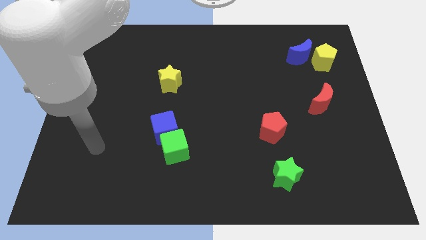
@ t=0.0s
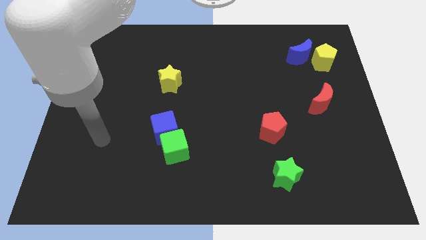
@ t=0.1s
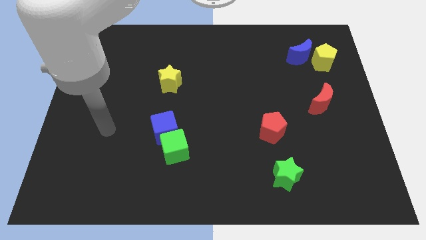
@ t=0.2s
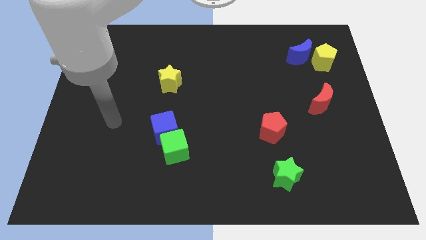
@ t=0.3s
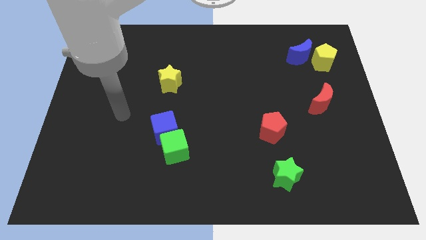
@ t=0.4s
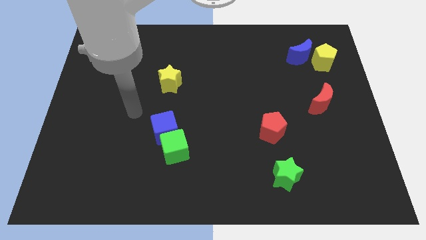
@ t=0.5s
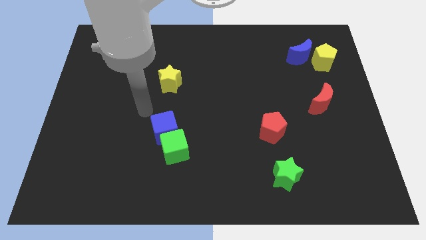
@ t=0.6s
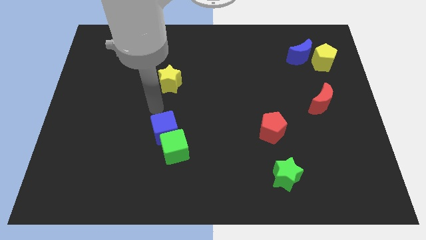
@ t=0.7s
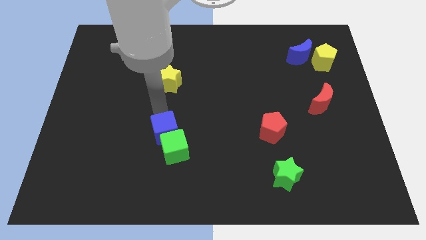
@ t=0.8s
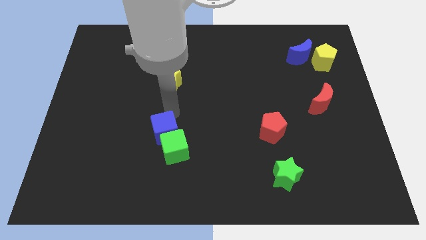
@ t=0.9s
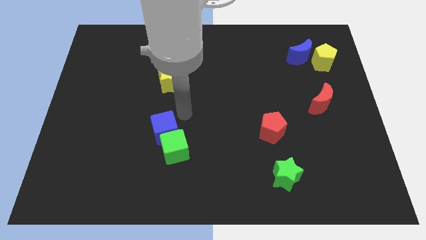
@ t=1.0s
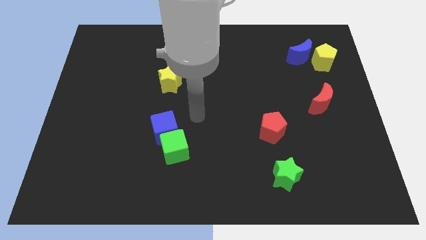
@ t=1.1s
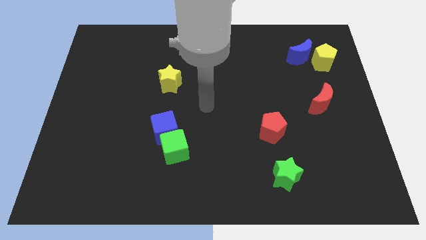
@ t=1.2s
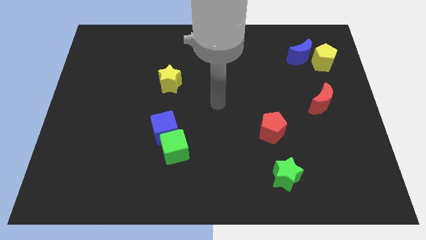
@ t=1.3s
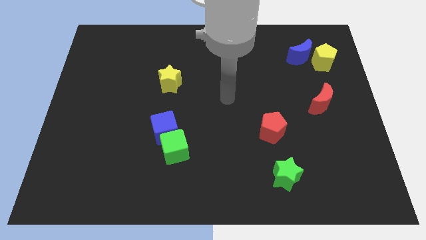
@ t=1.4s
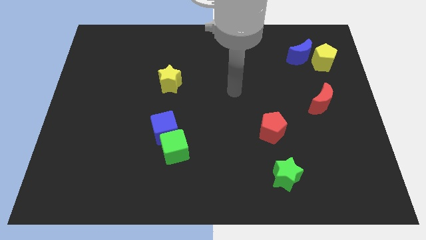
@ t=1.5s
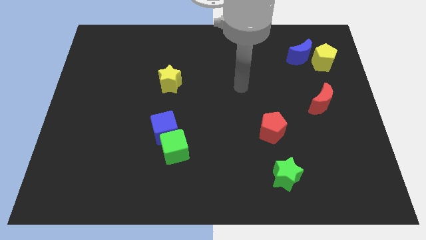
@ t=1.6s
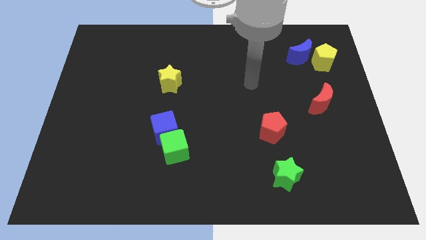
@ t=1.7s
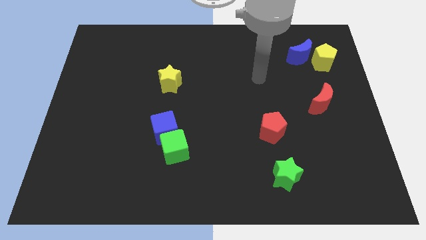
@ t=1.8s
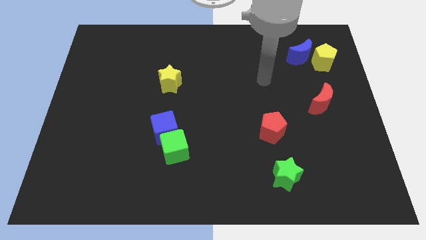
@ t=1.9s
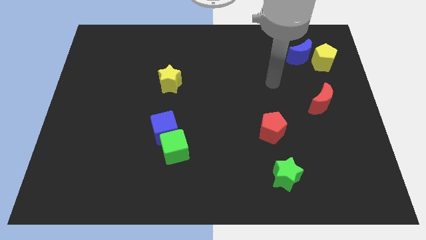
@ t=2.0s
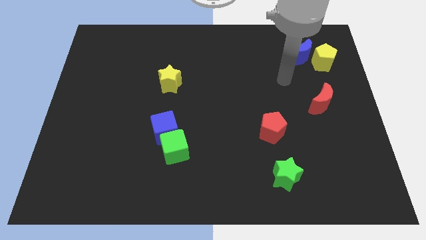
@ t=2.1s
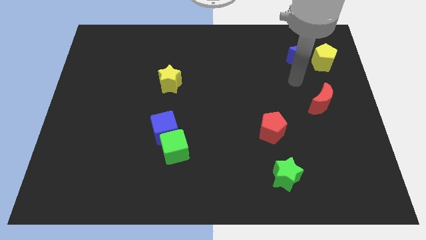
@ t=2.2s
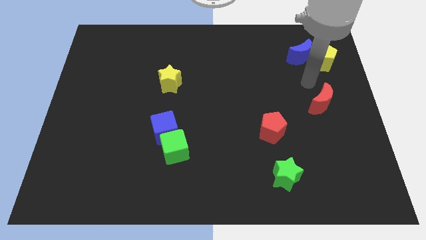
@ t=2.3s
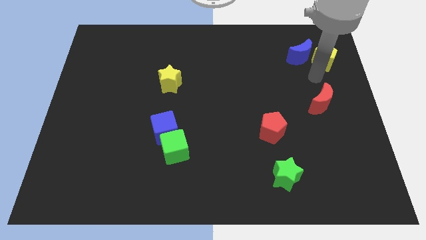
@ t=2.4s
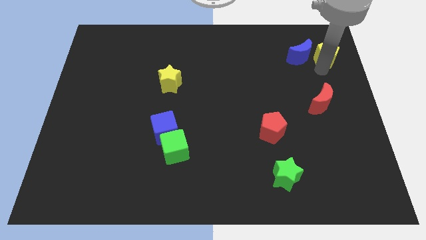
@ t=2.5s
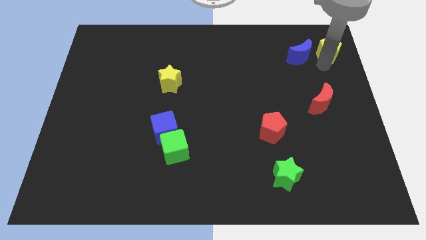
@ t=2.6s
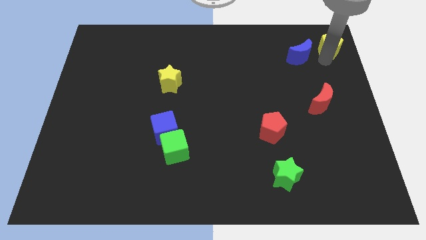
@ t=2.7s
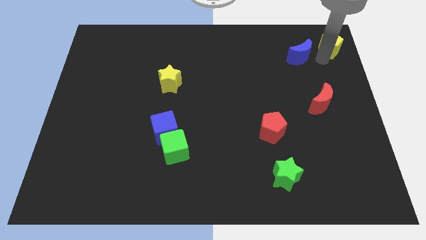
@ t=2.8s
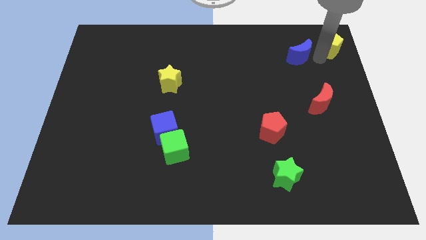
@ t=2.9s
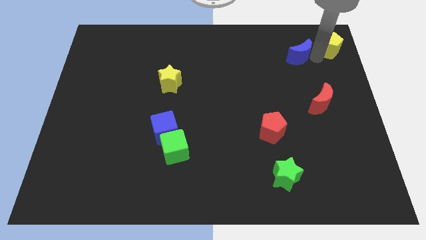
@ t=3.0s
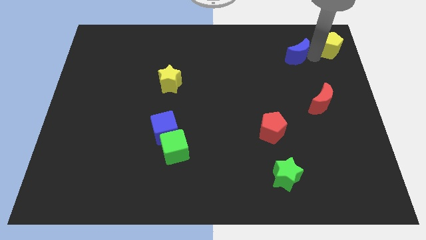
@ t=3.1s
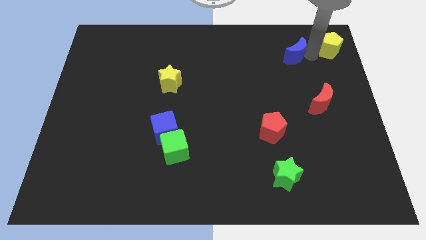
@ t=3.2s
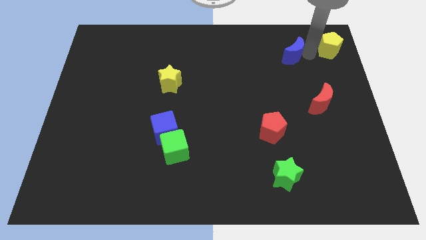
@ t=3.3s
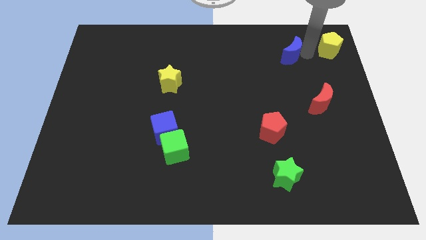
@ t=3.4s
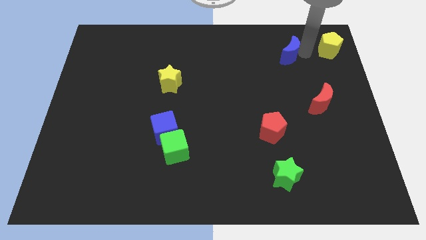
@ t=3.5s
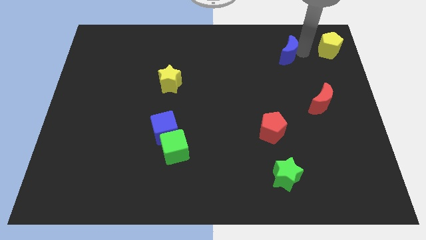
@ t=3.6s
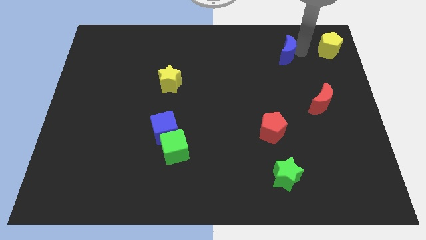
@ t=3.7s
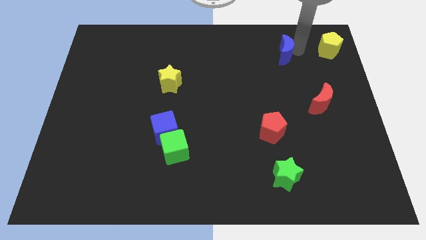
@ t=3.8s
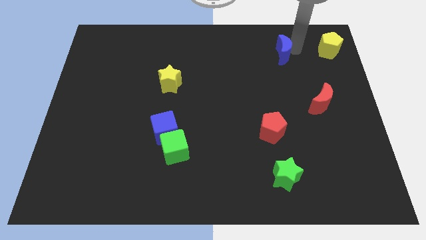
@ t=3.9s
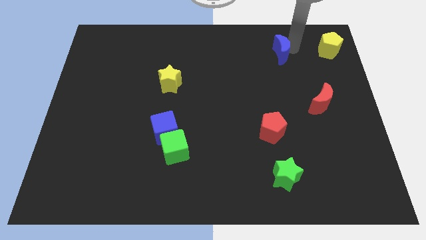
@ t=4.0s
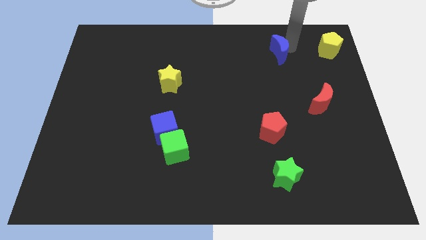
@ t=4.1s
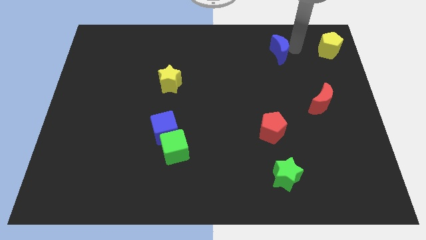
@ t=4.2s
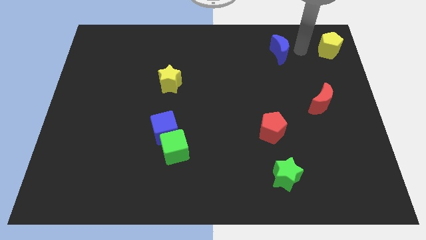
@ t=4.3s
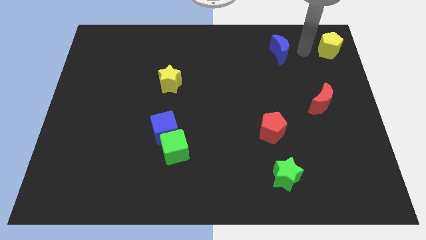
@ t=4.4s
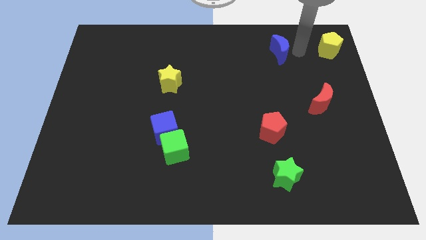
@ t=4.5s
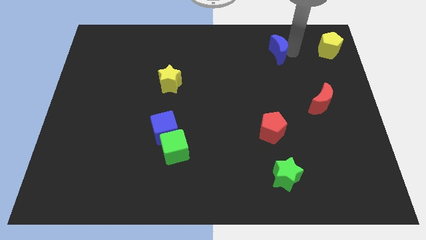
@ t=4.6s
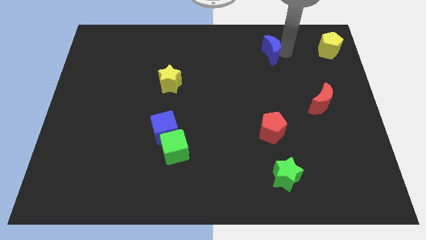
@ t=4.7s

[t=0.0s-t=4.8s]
move the blue moon left a little

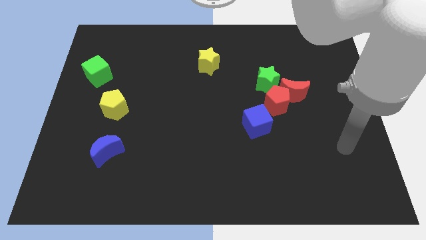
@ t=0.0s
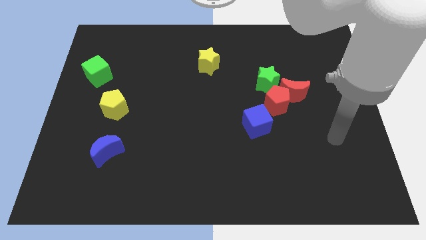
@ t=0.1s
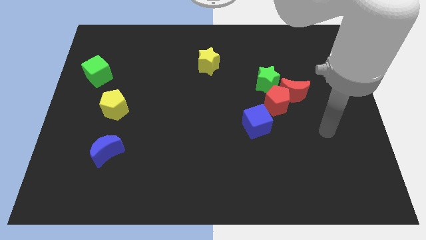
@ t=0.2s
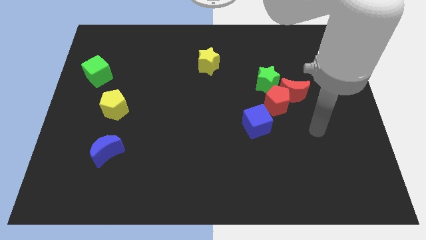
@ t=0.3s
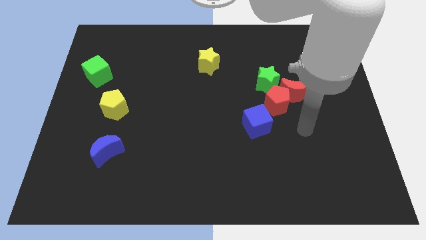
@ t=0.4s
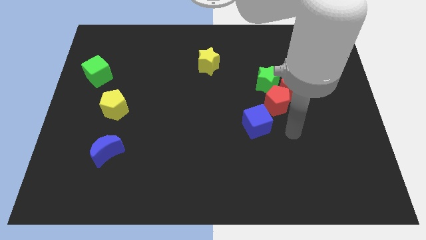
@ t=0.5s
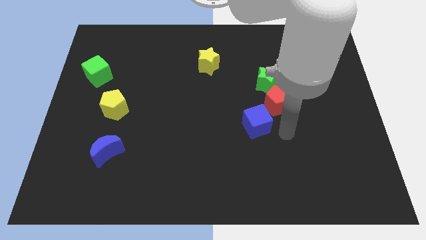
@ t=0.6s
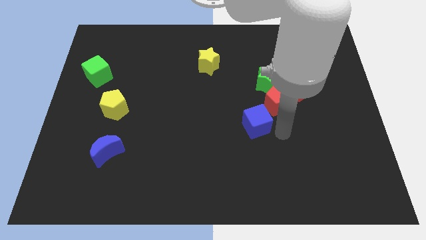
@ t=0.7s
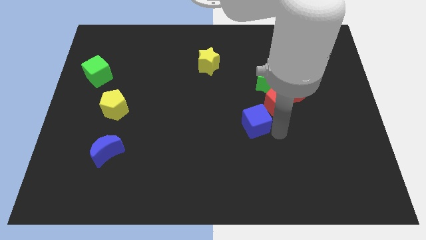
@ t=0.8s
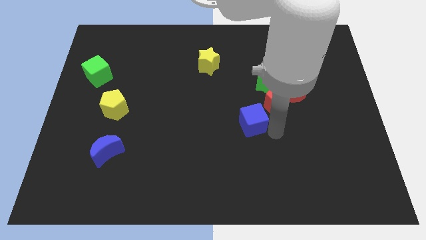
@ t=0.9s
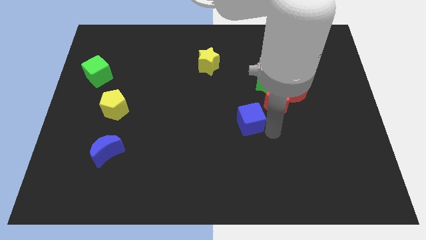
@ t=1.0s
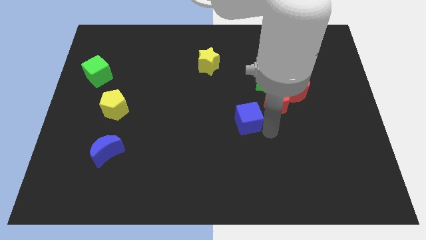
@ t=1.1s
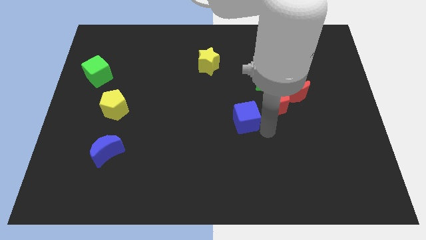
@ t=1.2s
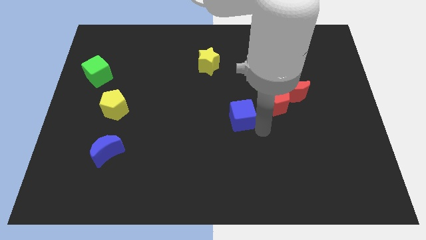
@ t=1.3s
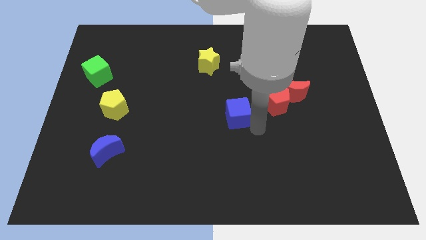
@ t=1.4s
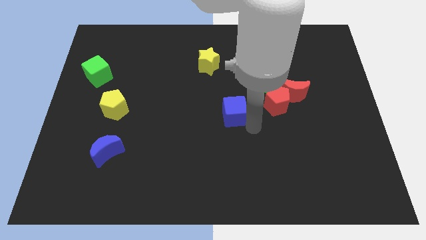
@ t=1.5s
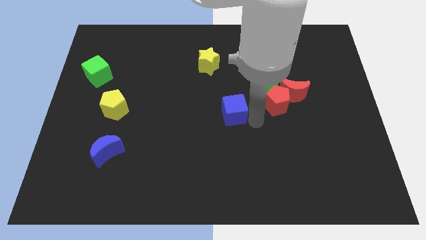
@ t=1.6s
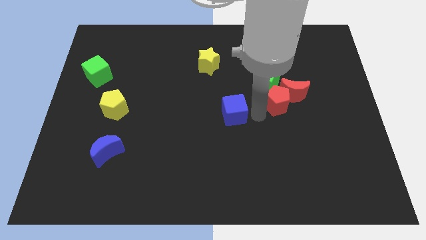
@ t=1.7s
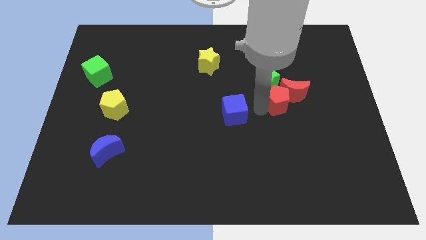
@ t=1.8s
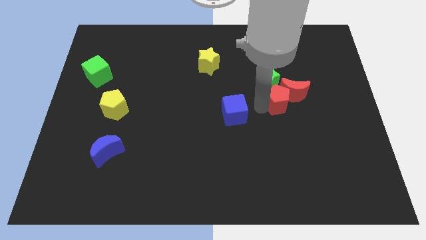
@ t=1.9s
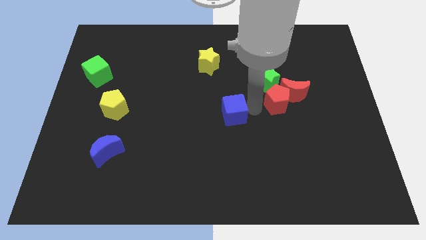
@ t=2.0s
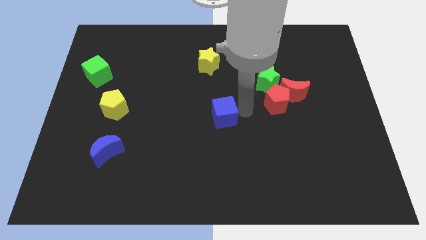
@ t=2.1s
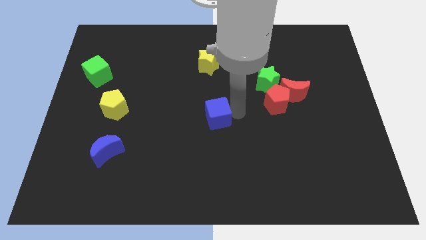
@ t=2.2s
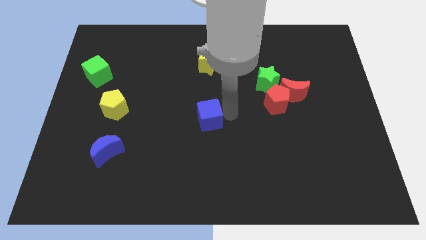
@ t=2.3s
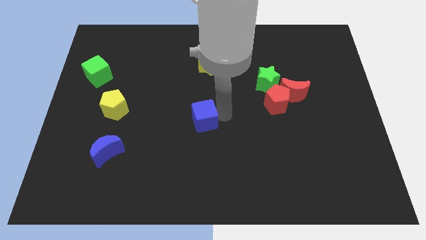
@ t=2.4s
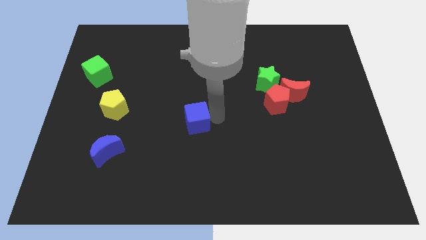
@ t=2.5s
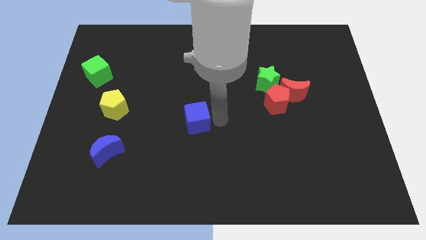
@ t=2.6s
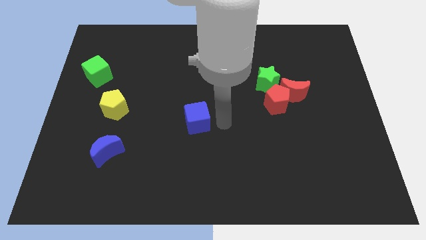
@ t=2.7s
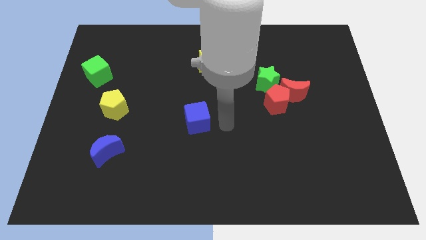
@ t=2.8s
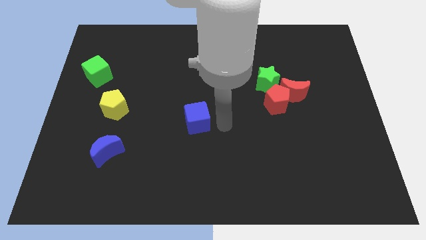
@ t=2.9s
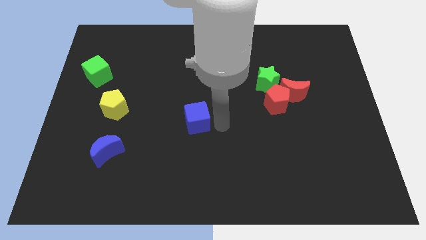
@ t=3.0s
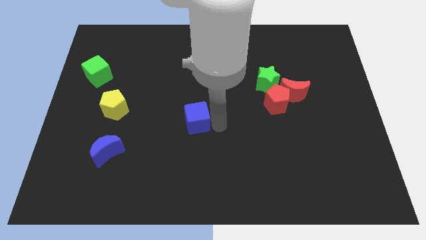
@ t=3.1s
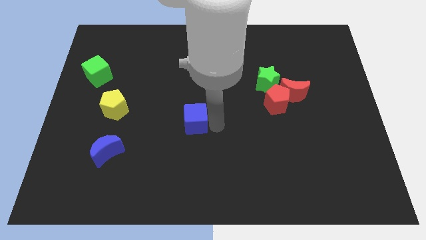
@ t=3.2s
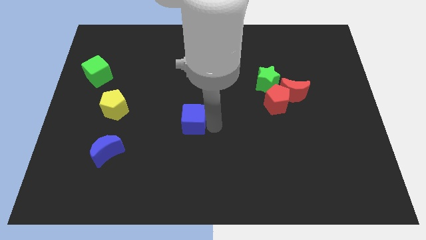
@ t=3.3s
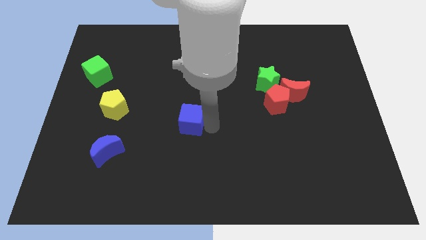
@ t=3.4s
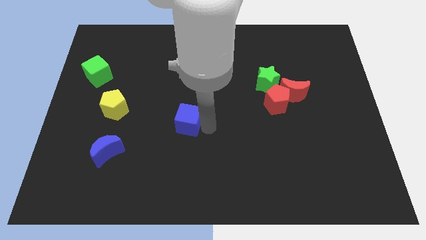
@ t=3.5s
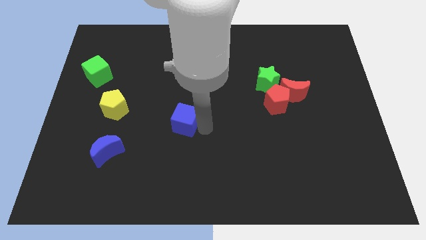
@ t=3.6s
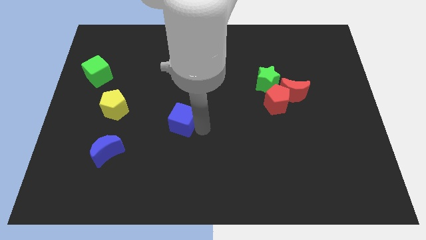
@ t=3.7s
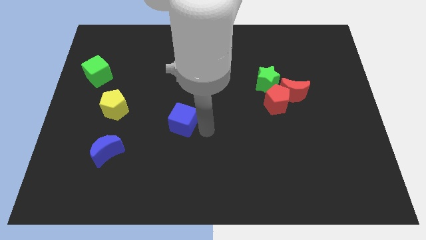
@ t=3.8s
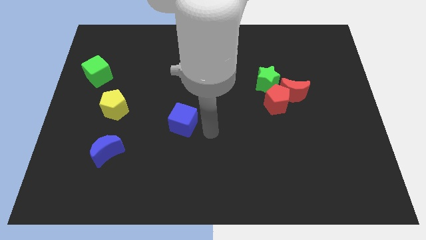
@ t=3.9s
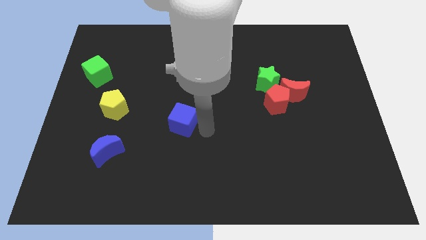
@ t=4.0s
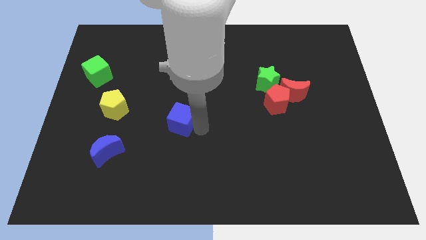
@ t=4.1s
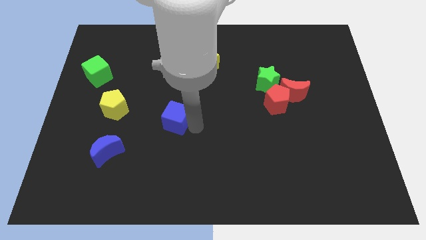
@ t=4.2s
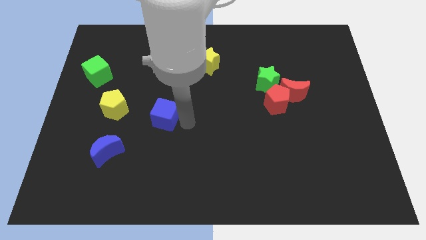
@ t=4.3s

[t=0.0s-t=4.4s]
move the blue cube to the left
